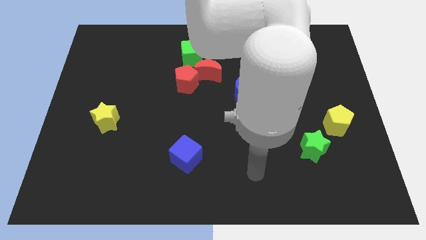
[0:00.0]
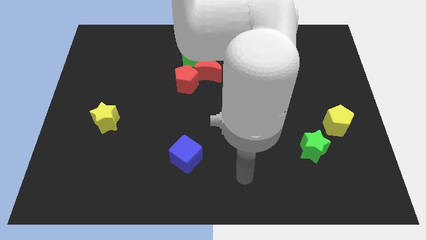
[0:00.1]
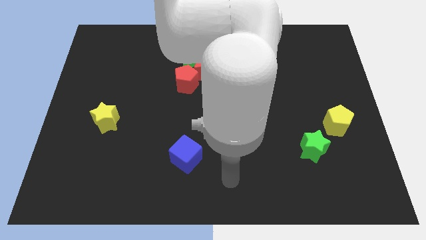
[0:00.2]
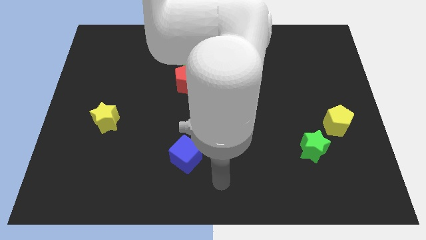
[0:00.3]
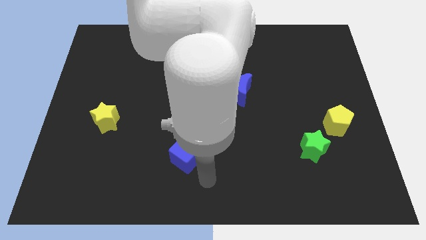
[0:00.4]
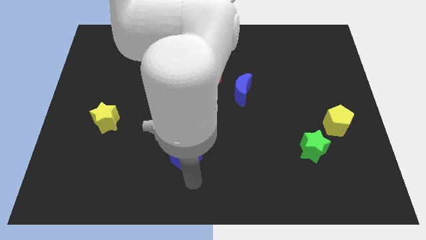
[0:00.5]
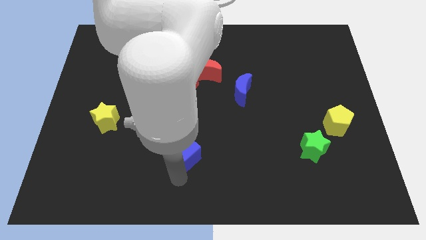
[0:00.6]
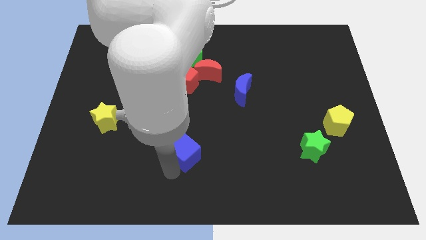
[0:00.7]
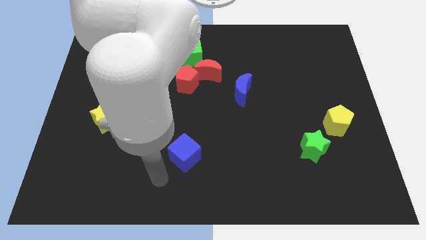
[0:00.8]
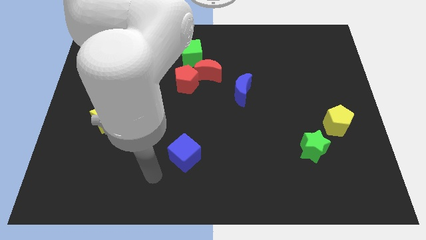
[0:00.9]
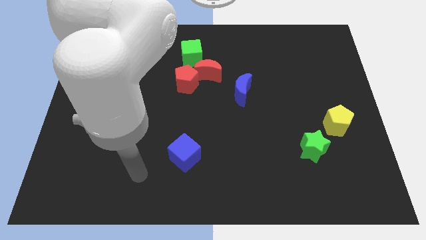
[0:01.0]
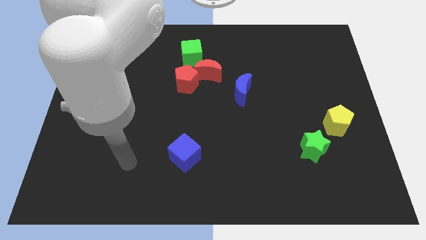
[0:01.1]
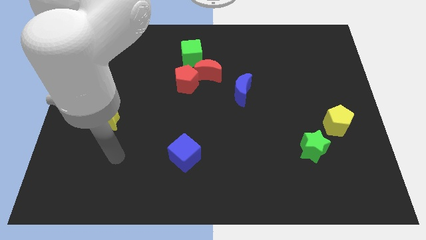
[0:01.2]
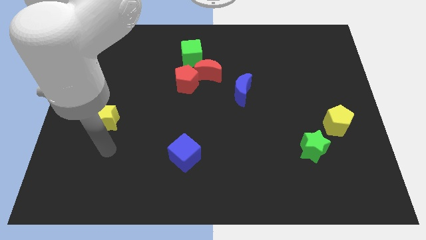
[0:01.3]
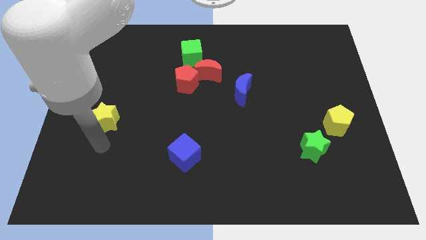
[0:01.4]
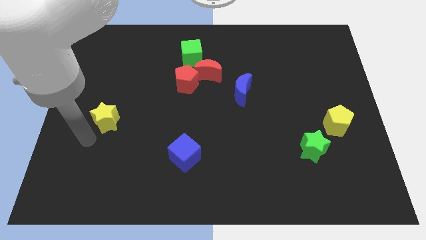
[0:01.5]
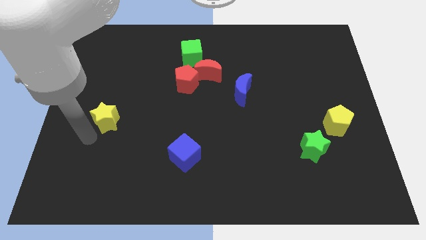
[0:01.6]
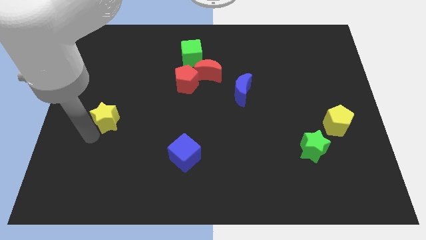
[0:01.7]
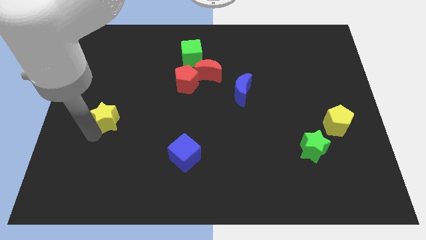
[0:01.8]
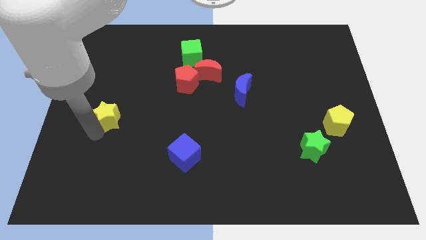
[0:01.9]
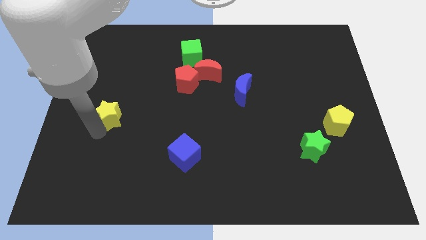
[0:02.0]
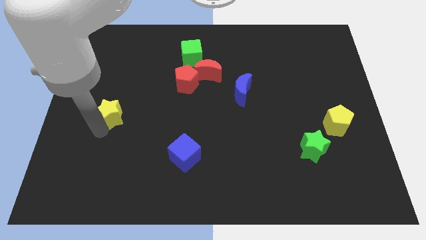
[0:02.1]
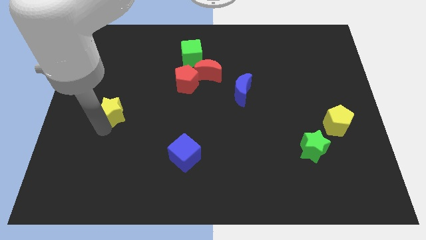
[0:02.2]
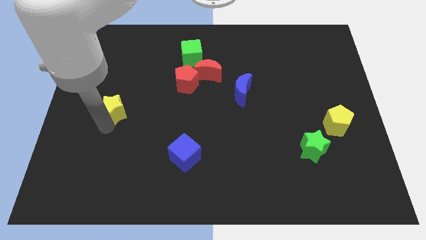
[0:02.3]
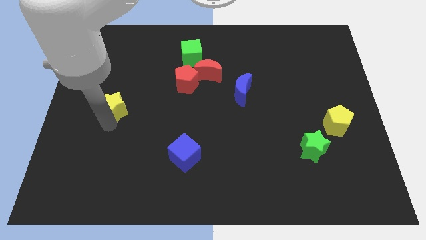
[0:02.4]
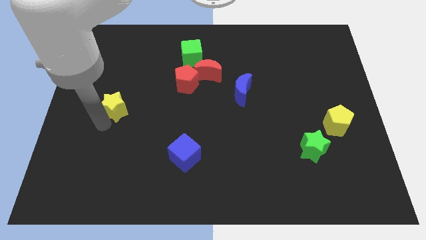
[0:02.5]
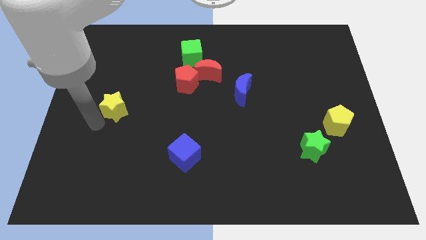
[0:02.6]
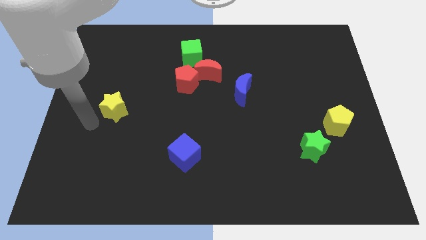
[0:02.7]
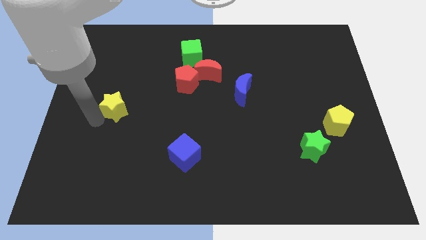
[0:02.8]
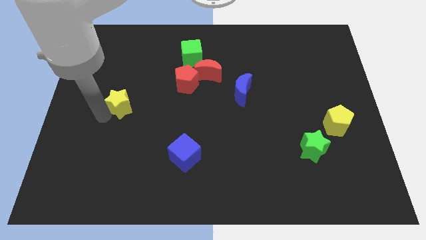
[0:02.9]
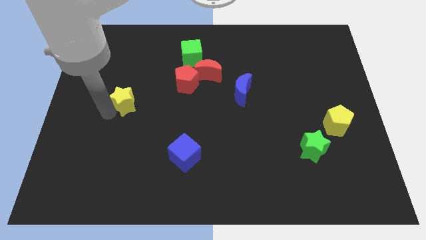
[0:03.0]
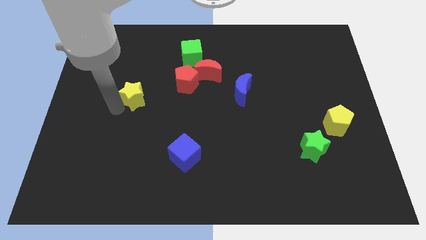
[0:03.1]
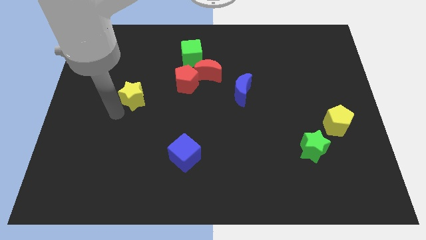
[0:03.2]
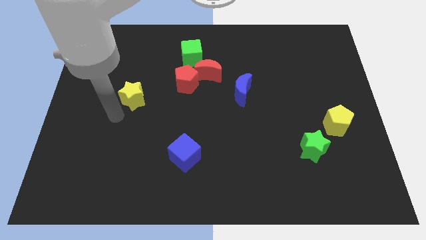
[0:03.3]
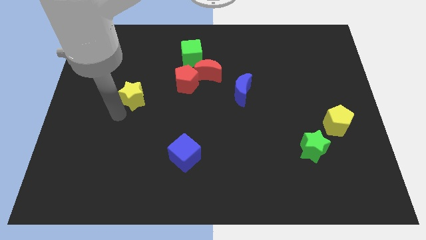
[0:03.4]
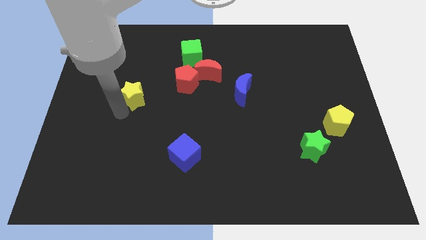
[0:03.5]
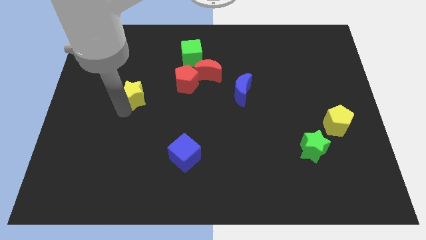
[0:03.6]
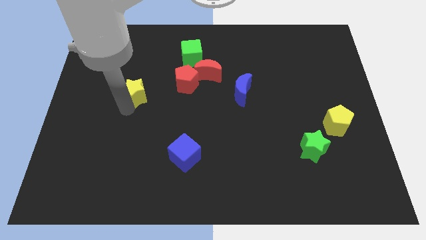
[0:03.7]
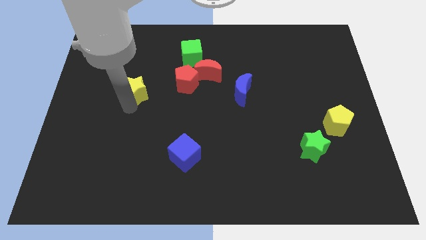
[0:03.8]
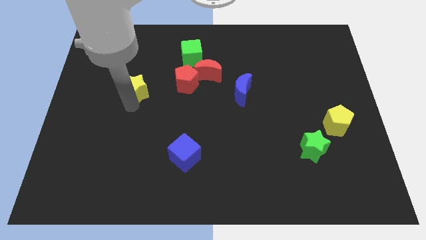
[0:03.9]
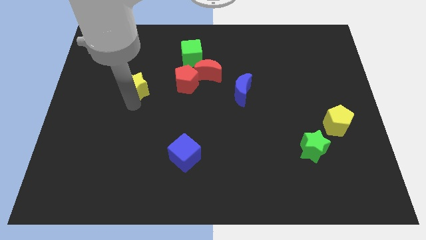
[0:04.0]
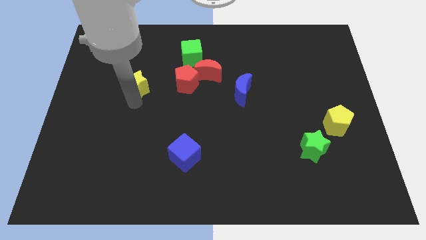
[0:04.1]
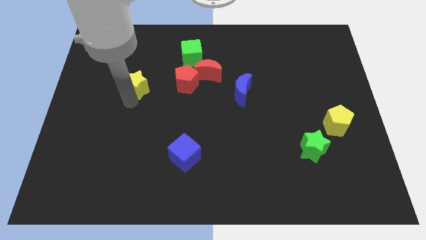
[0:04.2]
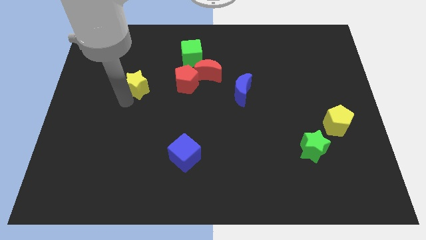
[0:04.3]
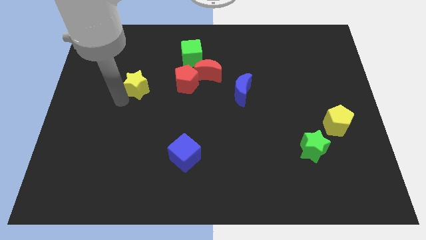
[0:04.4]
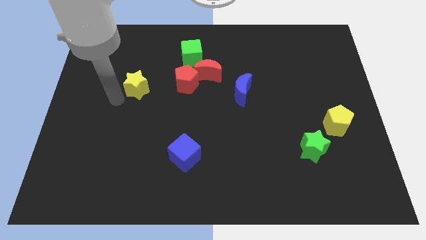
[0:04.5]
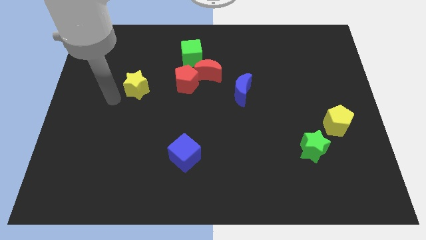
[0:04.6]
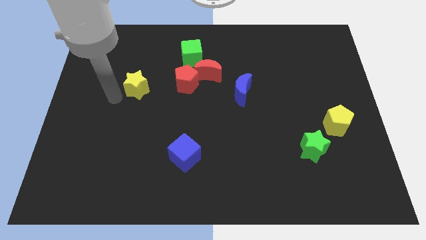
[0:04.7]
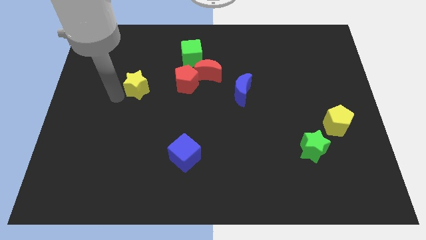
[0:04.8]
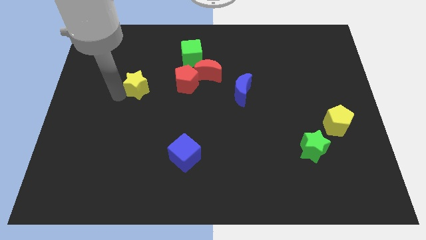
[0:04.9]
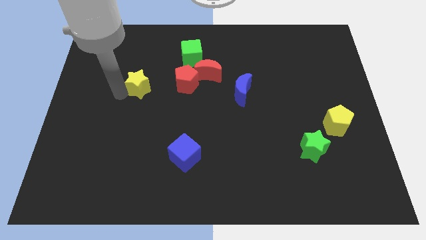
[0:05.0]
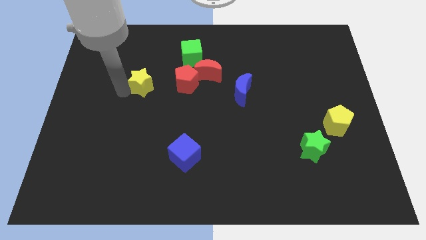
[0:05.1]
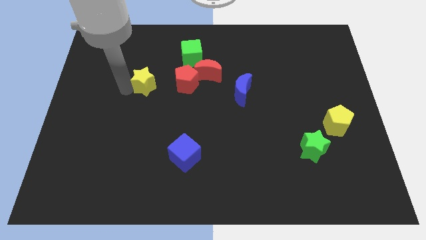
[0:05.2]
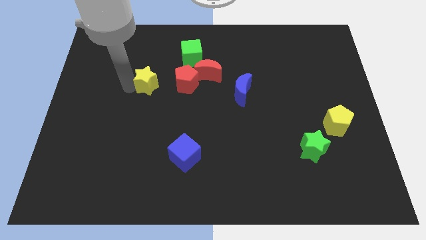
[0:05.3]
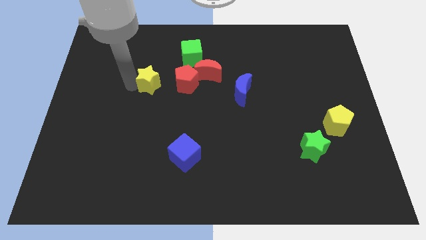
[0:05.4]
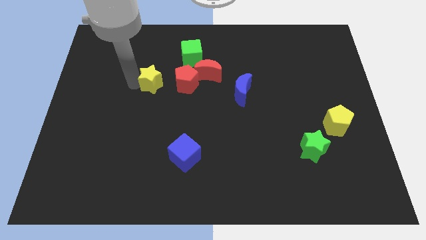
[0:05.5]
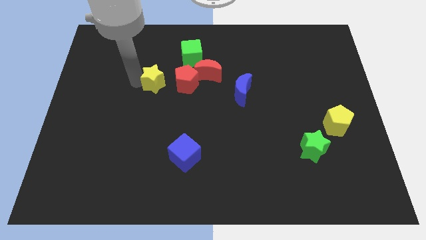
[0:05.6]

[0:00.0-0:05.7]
put the yellow star to the bottom left side of the green cube
